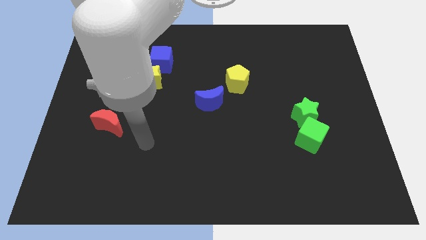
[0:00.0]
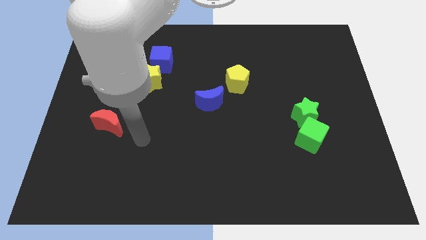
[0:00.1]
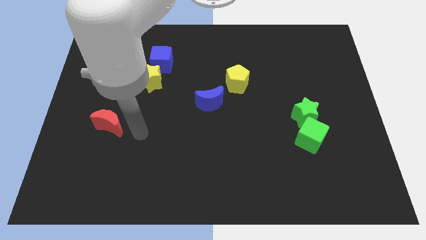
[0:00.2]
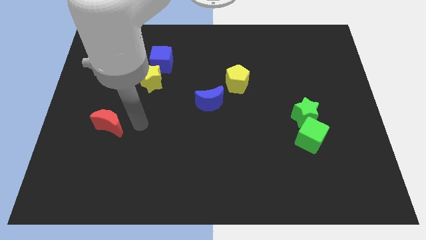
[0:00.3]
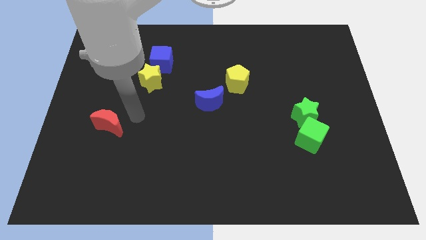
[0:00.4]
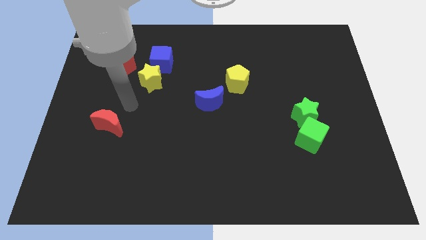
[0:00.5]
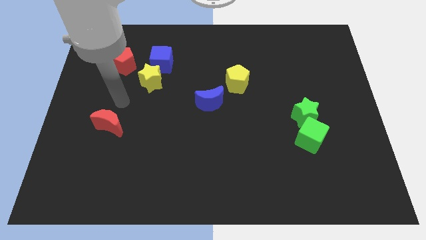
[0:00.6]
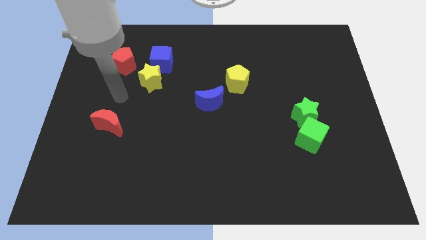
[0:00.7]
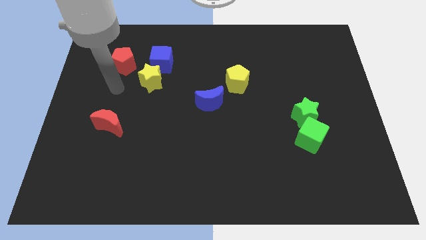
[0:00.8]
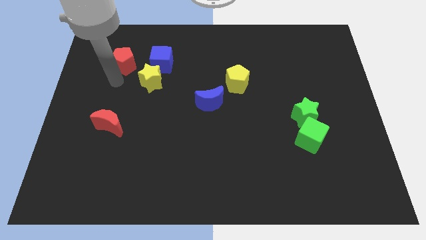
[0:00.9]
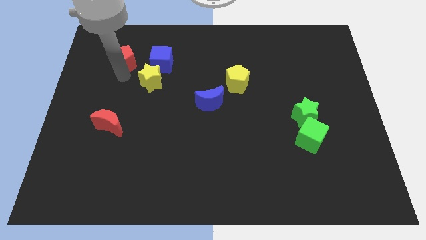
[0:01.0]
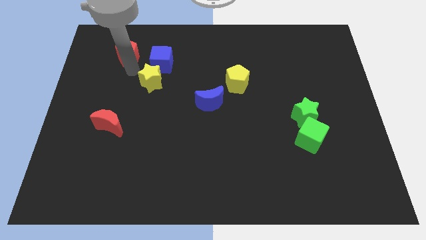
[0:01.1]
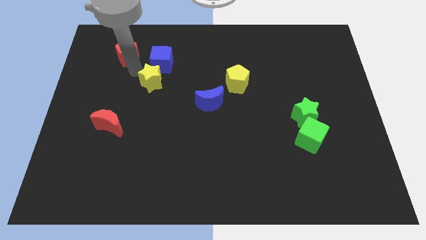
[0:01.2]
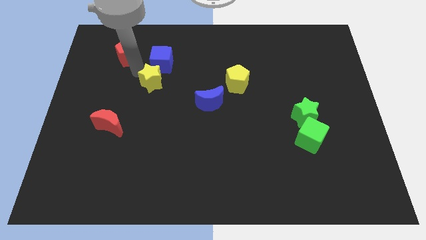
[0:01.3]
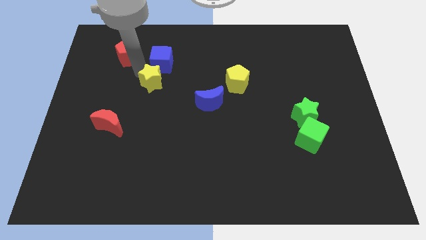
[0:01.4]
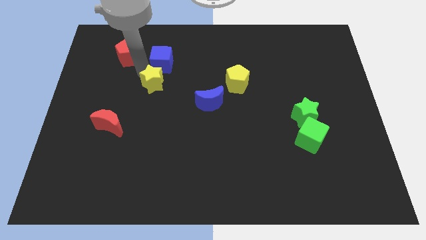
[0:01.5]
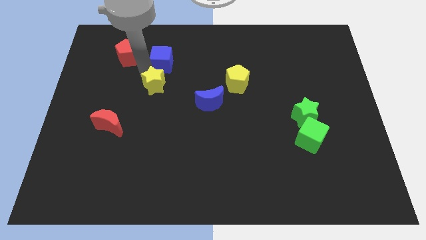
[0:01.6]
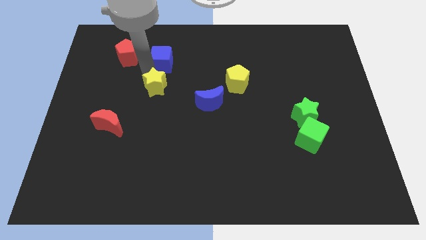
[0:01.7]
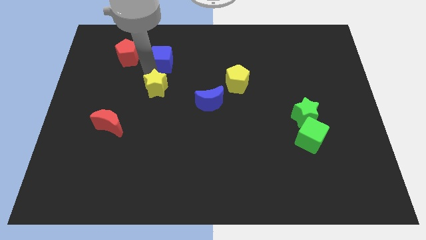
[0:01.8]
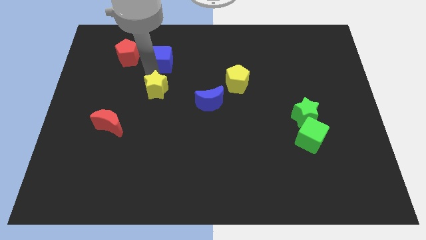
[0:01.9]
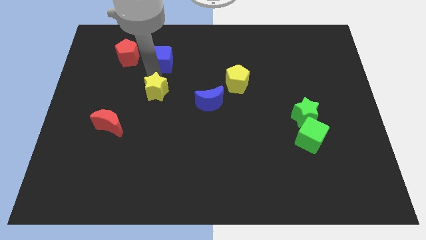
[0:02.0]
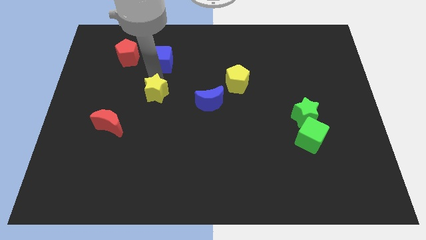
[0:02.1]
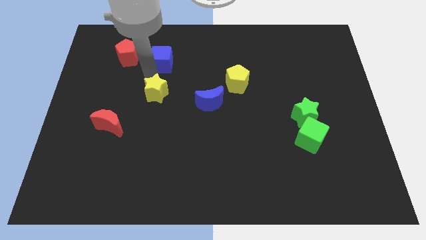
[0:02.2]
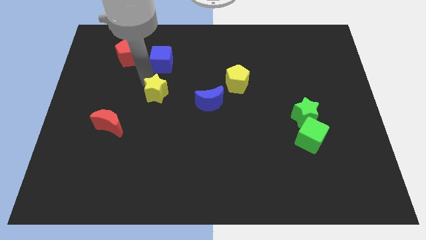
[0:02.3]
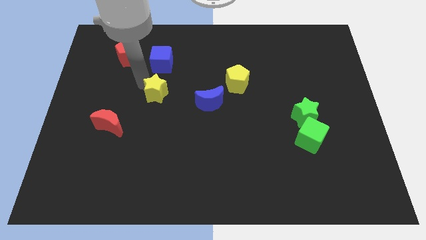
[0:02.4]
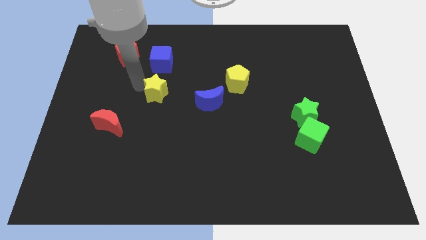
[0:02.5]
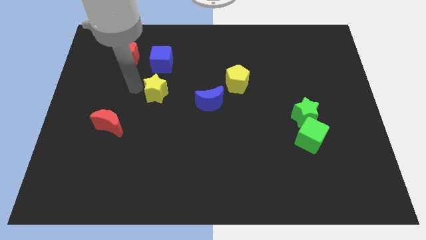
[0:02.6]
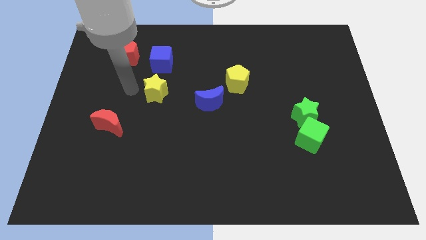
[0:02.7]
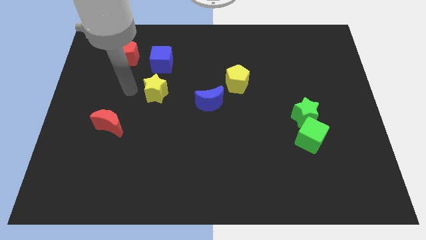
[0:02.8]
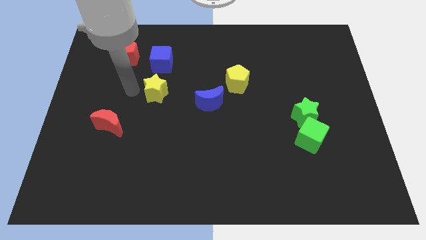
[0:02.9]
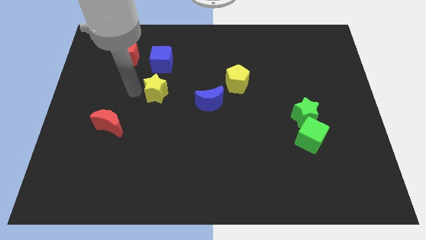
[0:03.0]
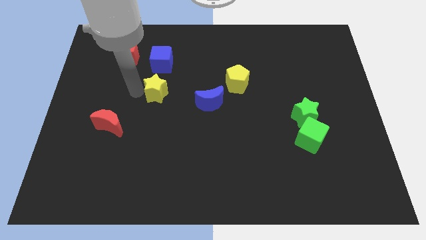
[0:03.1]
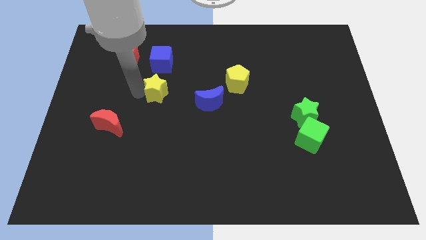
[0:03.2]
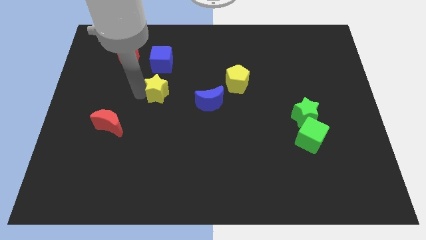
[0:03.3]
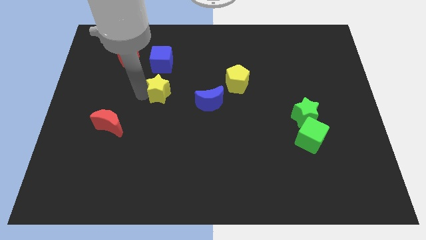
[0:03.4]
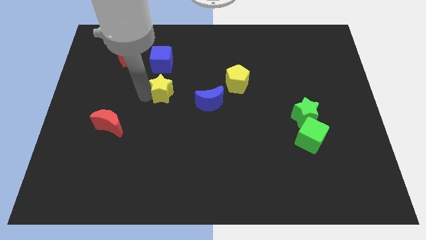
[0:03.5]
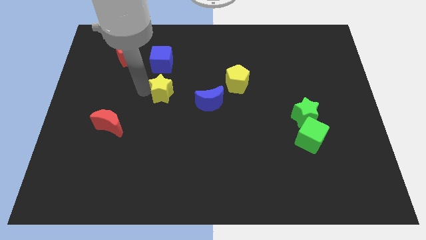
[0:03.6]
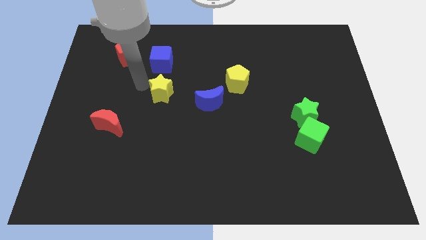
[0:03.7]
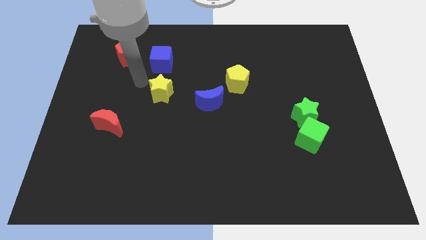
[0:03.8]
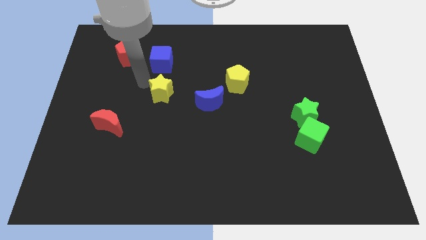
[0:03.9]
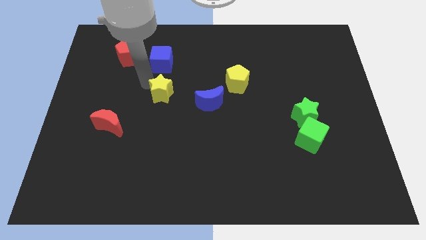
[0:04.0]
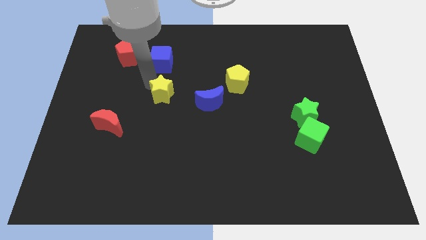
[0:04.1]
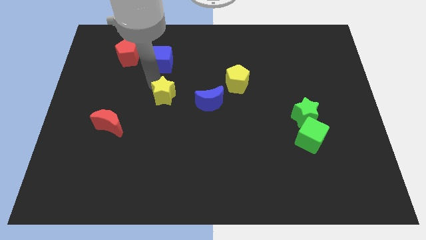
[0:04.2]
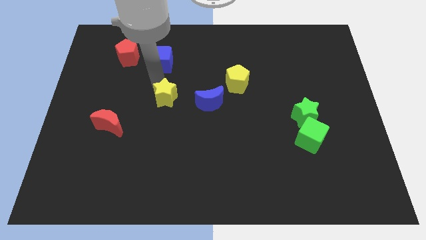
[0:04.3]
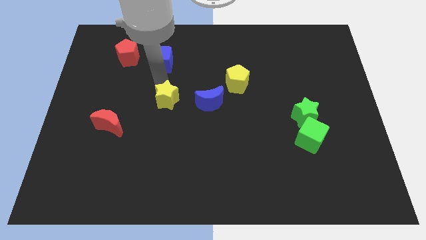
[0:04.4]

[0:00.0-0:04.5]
slide the yellow star somewhat downwards and then right

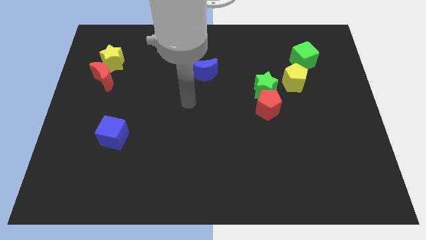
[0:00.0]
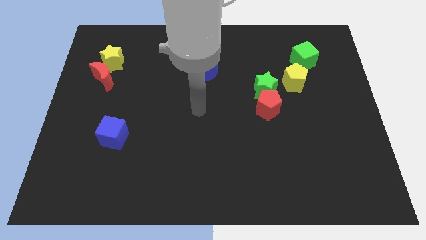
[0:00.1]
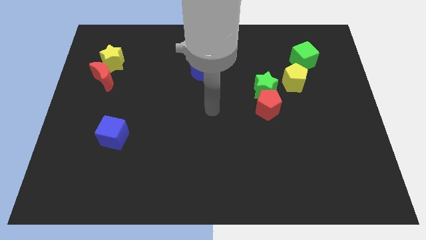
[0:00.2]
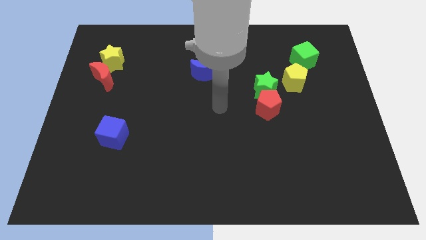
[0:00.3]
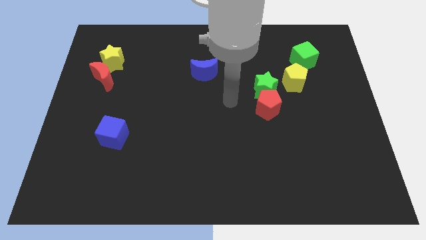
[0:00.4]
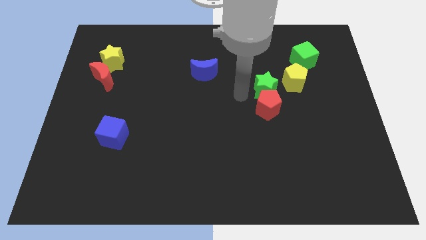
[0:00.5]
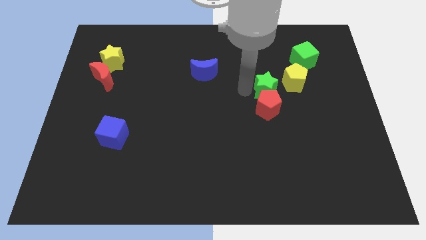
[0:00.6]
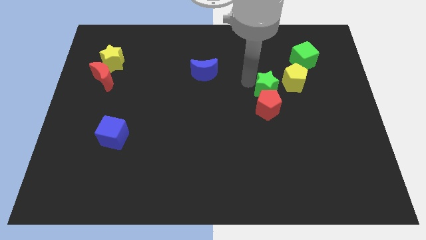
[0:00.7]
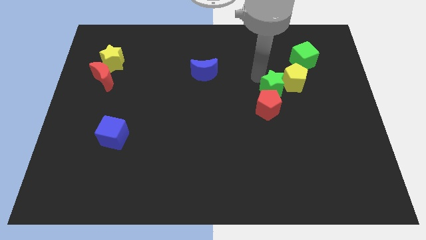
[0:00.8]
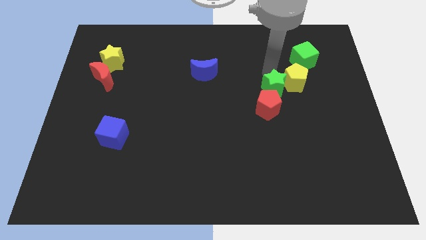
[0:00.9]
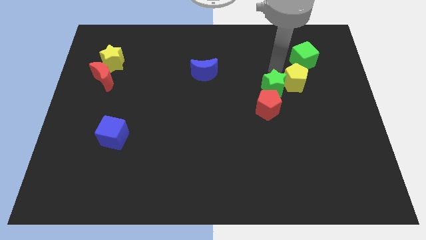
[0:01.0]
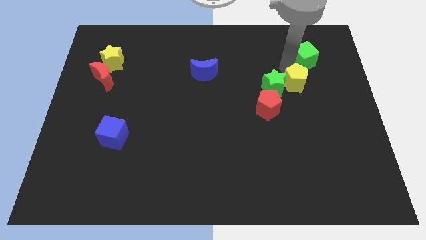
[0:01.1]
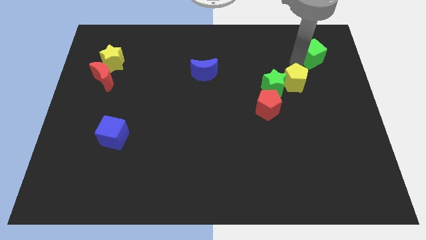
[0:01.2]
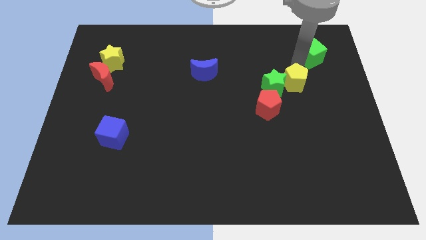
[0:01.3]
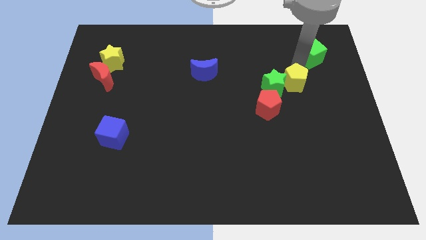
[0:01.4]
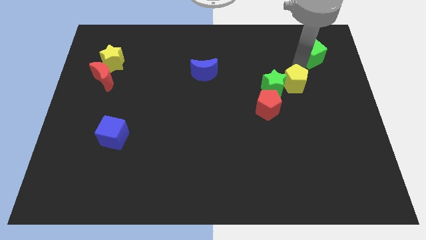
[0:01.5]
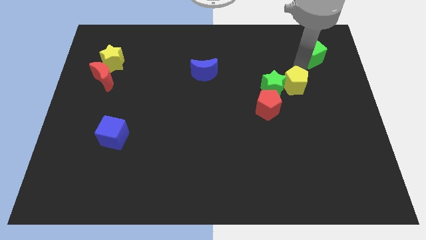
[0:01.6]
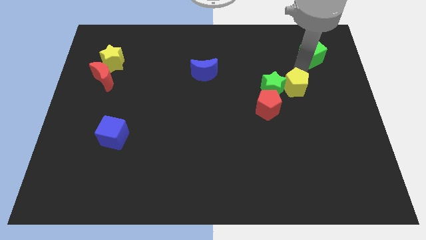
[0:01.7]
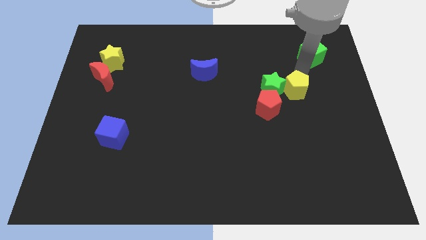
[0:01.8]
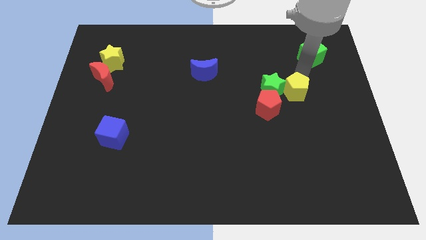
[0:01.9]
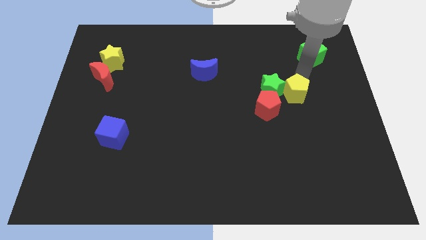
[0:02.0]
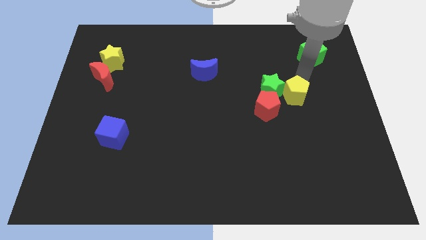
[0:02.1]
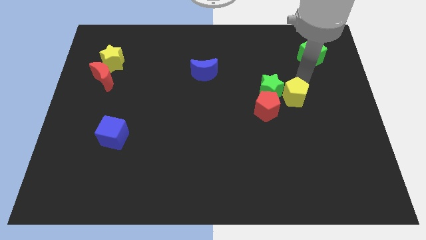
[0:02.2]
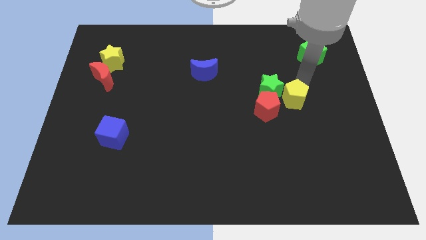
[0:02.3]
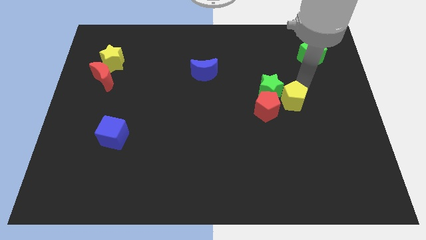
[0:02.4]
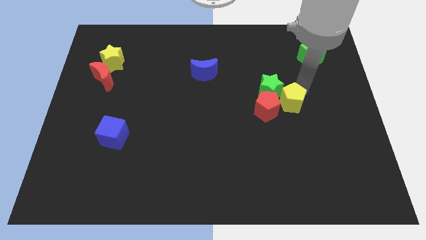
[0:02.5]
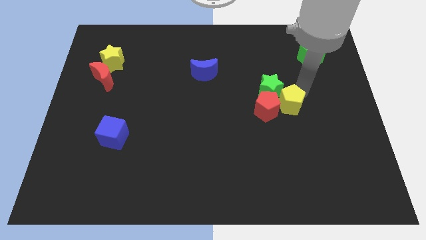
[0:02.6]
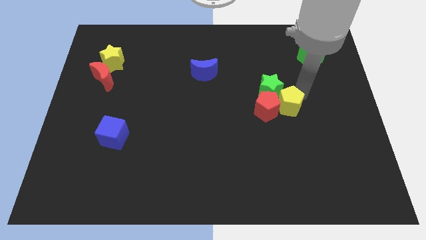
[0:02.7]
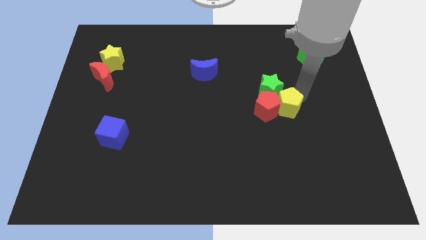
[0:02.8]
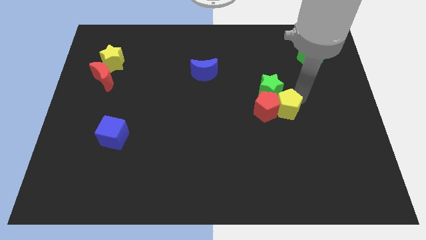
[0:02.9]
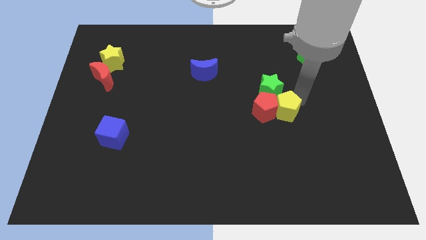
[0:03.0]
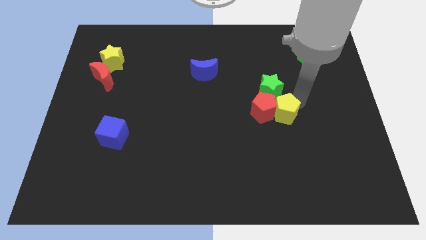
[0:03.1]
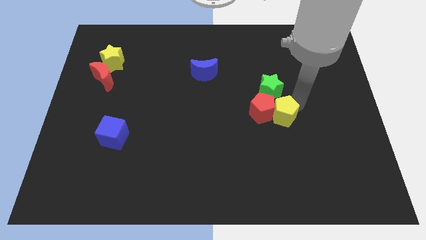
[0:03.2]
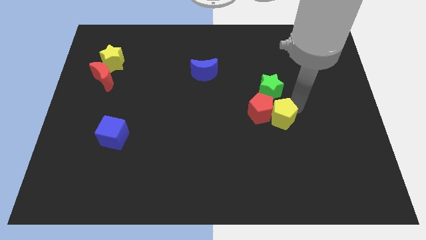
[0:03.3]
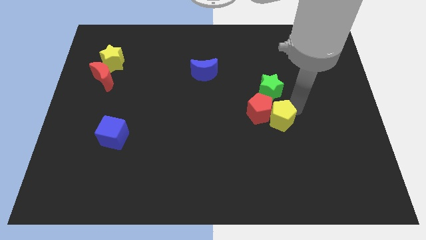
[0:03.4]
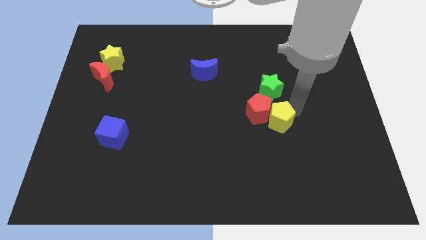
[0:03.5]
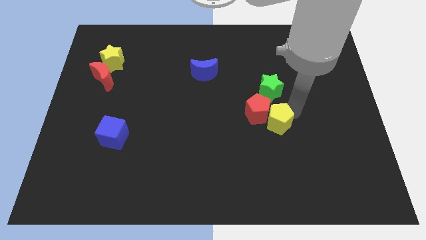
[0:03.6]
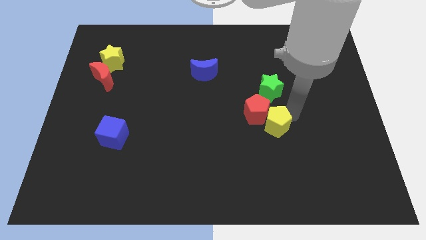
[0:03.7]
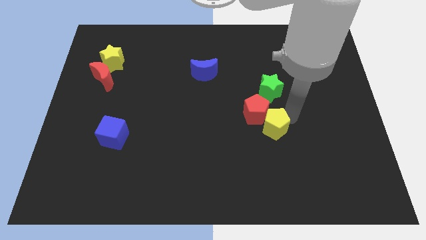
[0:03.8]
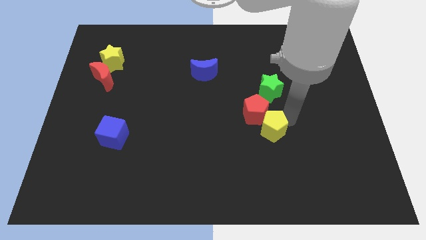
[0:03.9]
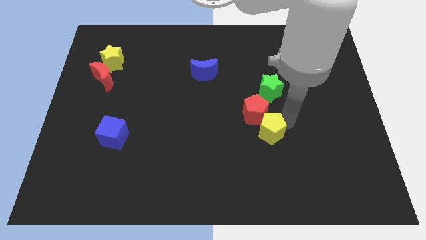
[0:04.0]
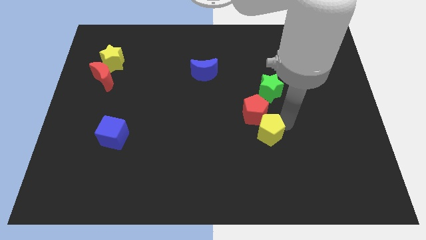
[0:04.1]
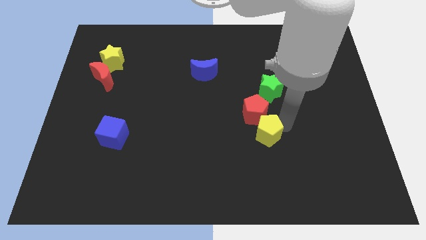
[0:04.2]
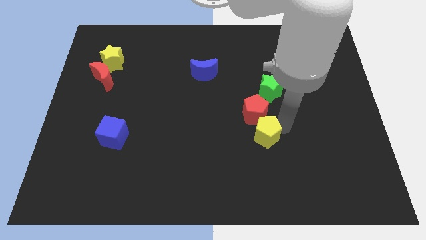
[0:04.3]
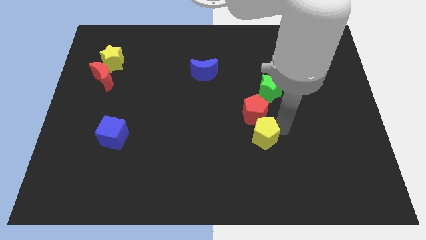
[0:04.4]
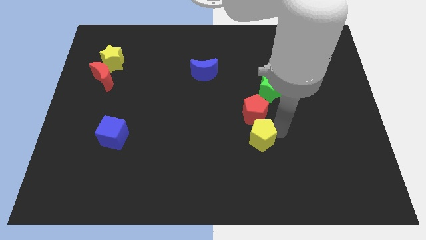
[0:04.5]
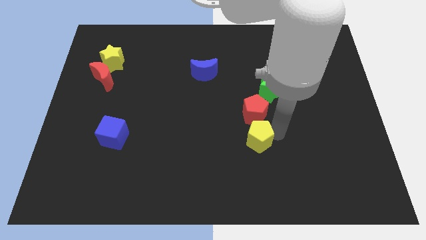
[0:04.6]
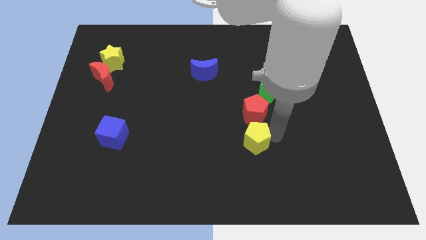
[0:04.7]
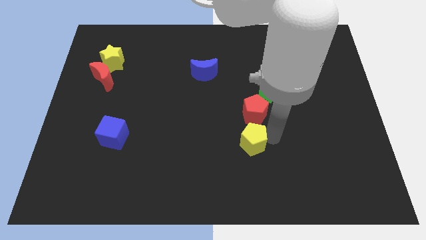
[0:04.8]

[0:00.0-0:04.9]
move the yellow pentagon down and to the left diagonally
